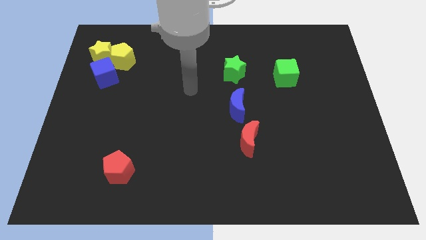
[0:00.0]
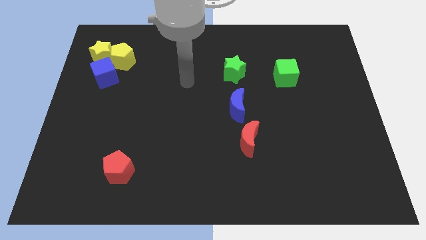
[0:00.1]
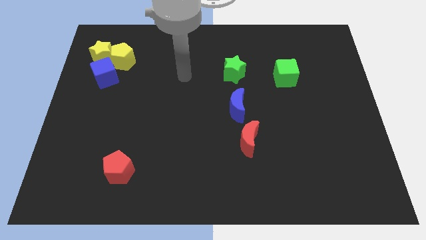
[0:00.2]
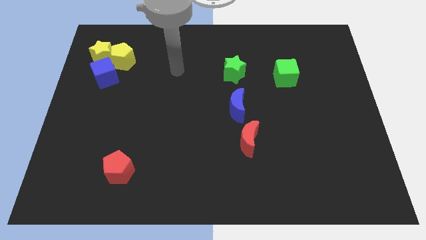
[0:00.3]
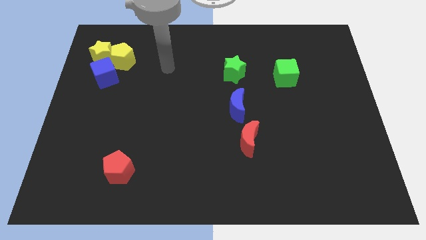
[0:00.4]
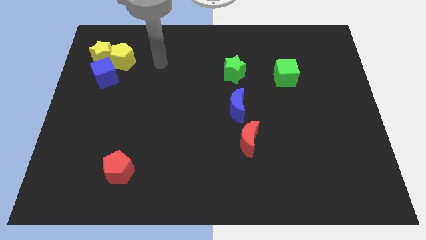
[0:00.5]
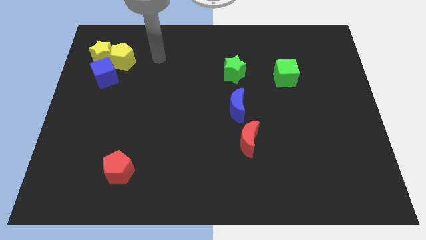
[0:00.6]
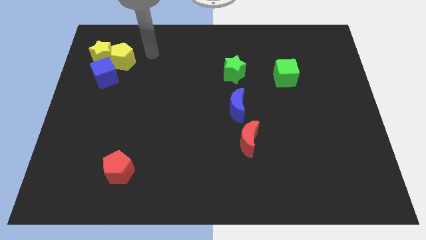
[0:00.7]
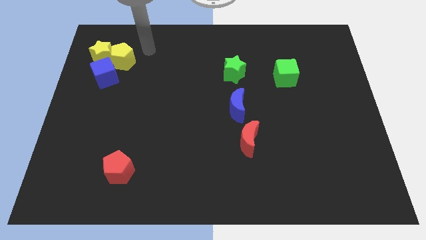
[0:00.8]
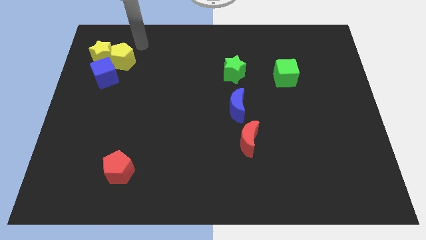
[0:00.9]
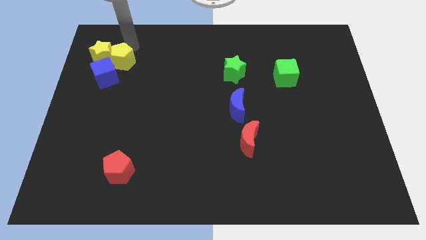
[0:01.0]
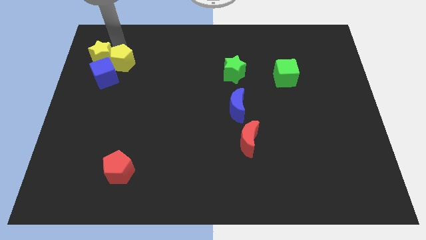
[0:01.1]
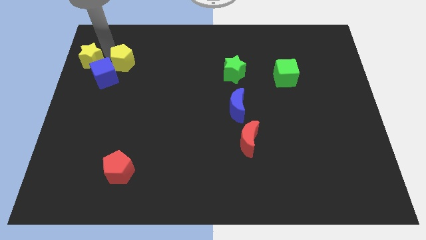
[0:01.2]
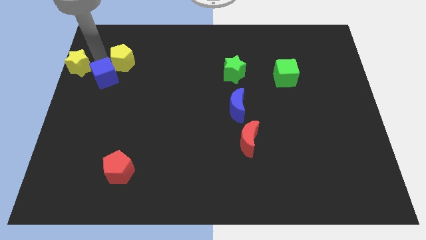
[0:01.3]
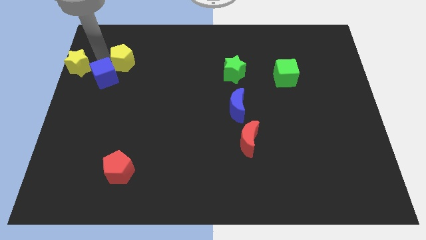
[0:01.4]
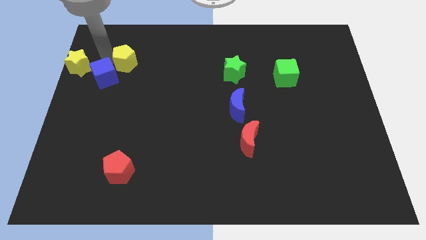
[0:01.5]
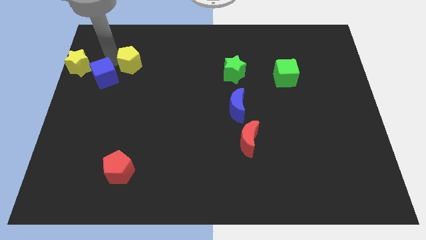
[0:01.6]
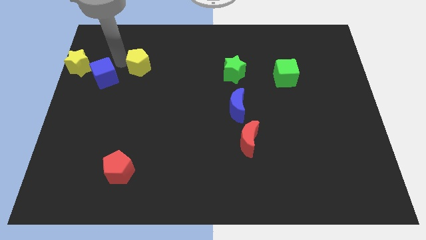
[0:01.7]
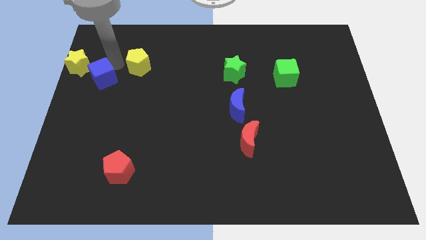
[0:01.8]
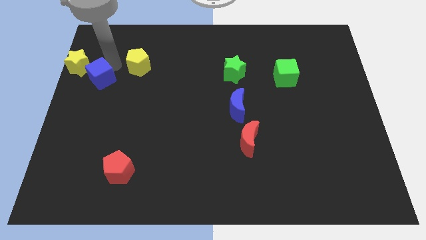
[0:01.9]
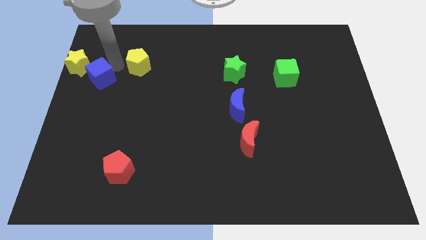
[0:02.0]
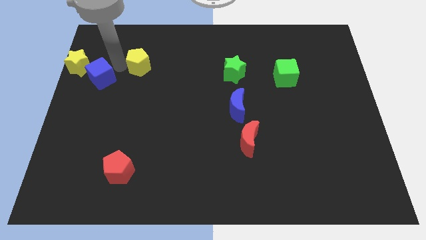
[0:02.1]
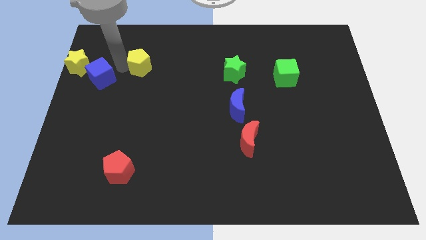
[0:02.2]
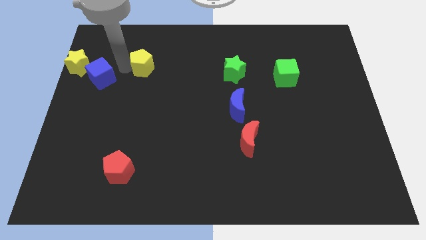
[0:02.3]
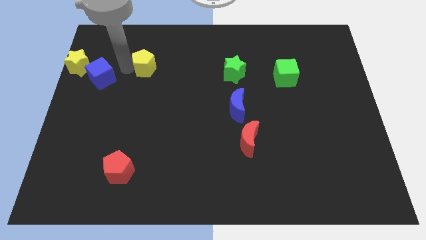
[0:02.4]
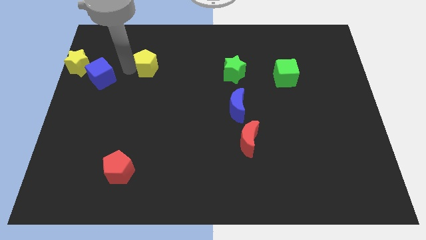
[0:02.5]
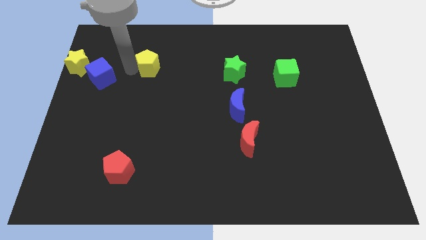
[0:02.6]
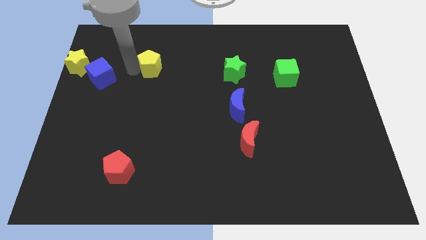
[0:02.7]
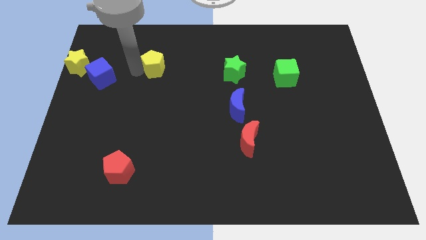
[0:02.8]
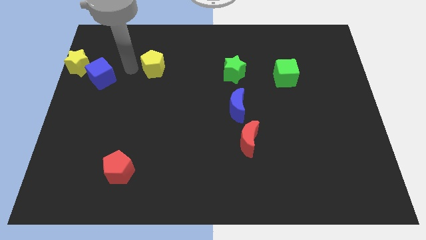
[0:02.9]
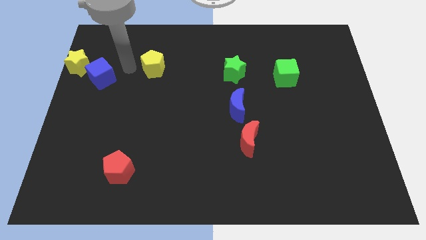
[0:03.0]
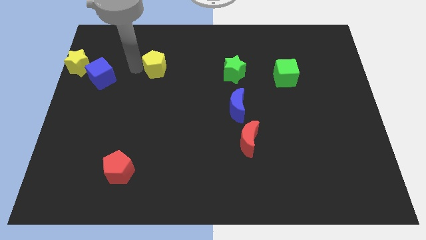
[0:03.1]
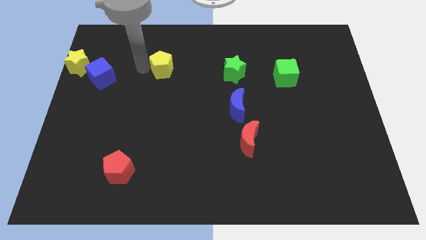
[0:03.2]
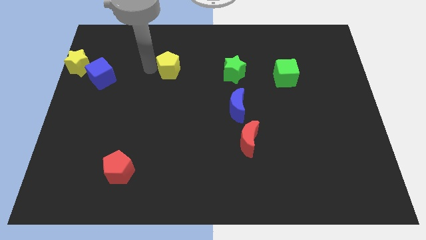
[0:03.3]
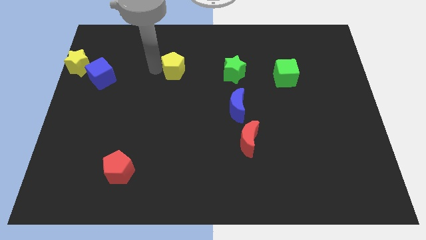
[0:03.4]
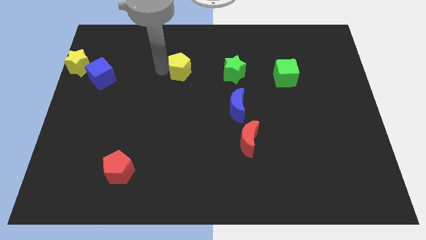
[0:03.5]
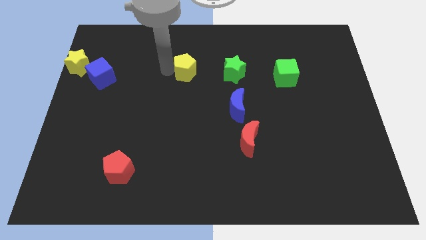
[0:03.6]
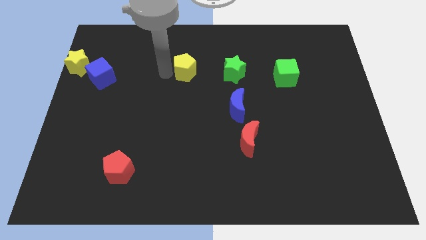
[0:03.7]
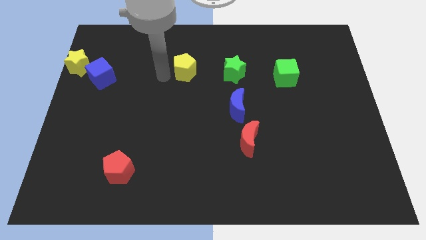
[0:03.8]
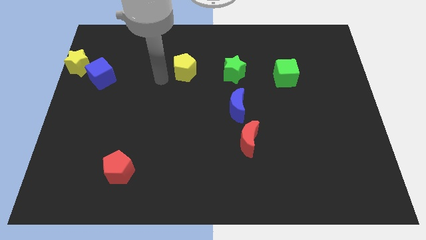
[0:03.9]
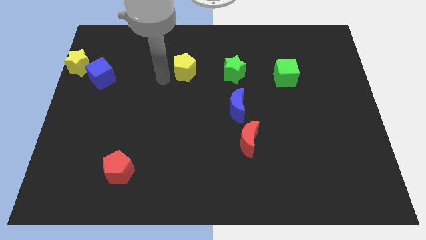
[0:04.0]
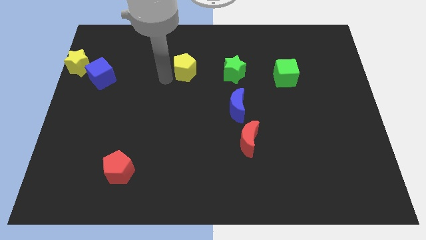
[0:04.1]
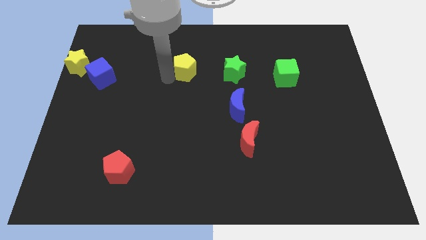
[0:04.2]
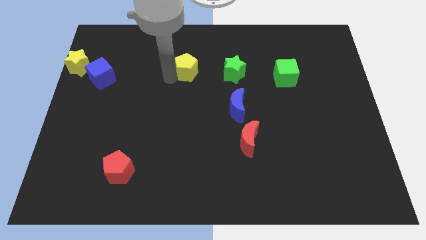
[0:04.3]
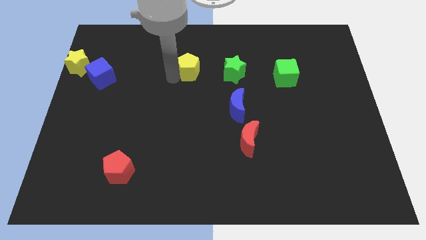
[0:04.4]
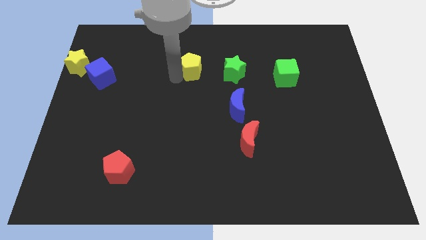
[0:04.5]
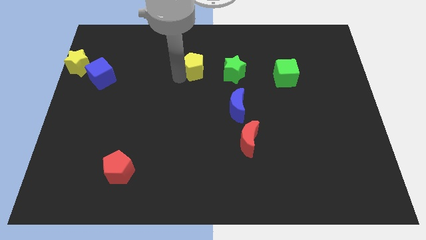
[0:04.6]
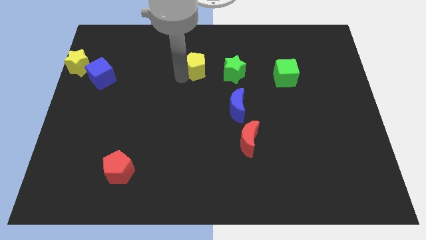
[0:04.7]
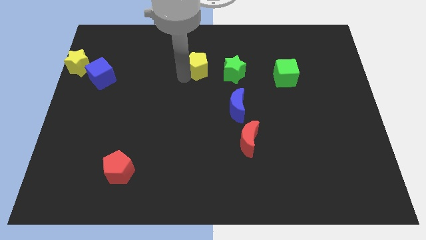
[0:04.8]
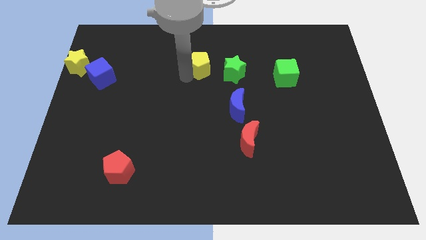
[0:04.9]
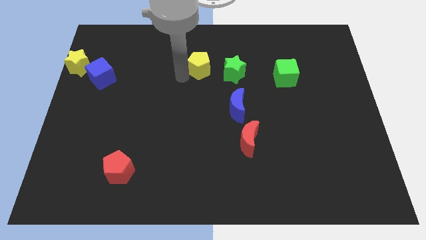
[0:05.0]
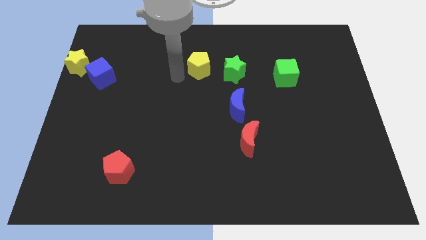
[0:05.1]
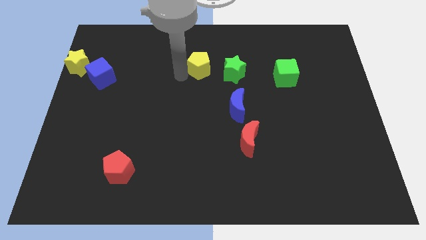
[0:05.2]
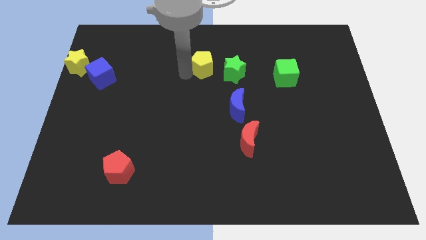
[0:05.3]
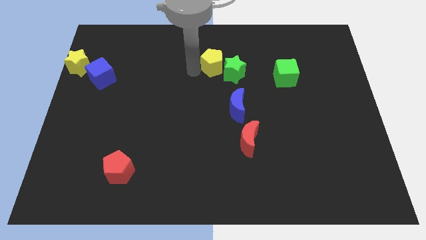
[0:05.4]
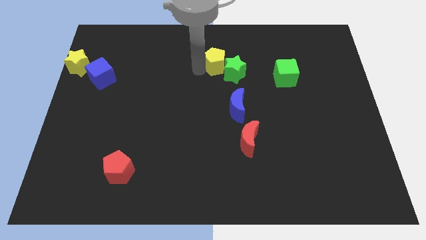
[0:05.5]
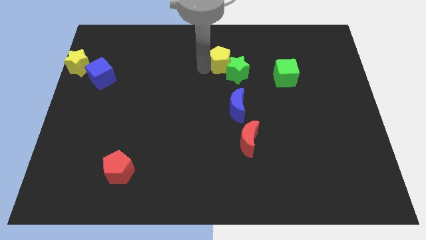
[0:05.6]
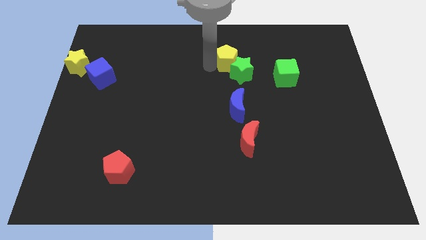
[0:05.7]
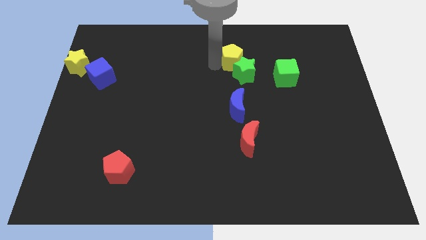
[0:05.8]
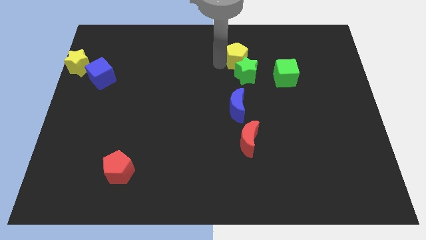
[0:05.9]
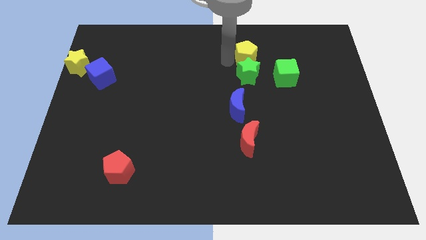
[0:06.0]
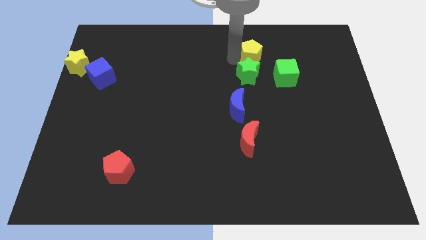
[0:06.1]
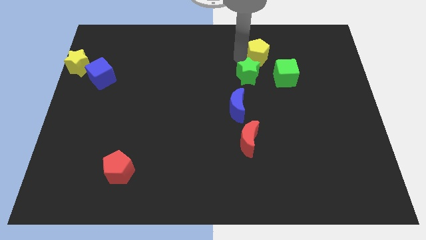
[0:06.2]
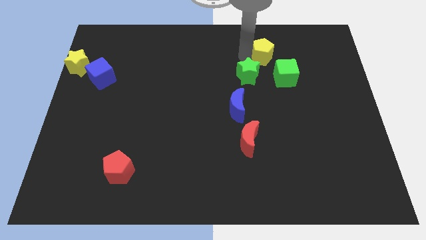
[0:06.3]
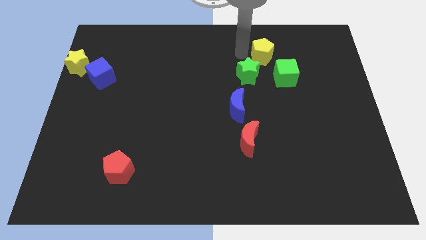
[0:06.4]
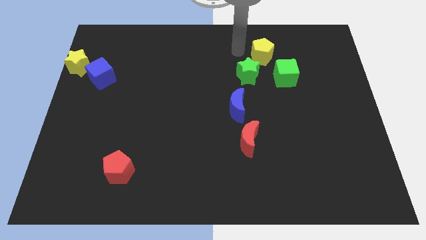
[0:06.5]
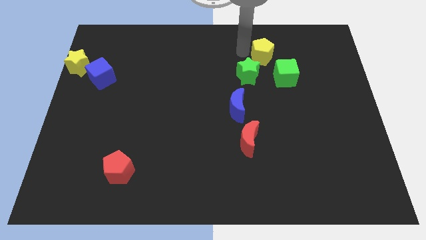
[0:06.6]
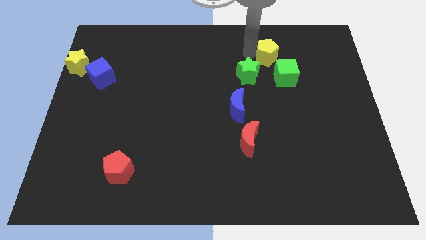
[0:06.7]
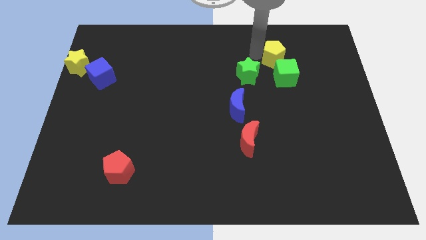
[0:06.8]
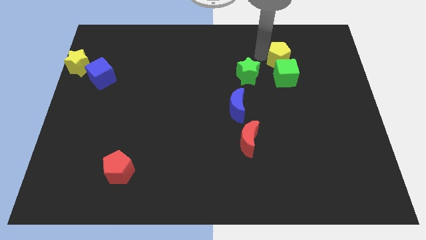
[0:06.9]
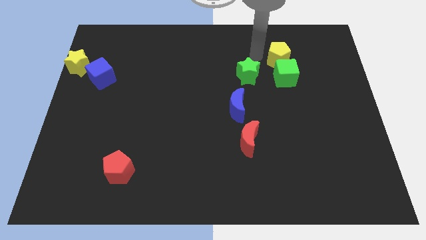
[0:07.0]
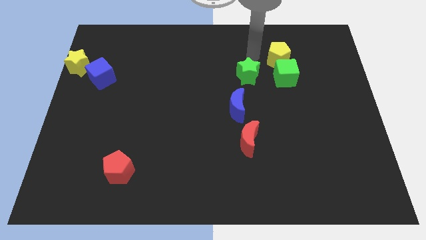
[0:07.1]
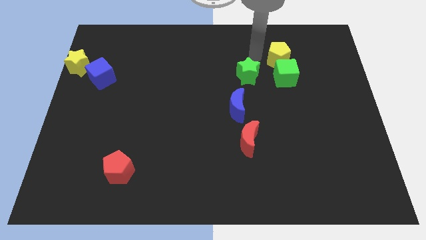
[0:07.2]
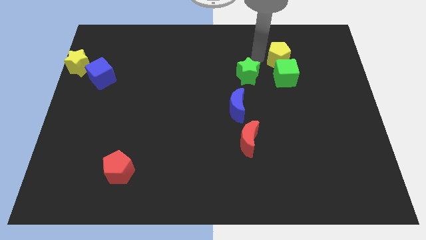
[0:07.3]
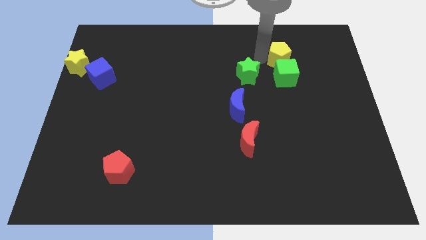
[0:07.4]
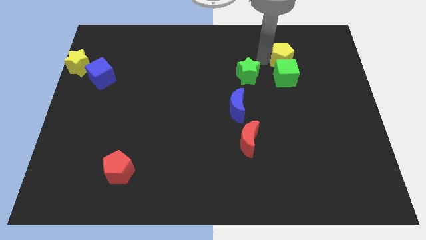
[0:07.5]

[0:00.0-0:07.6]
push the yellow pentagon to the top right side of the green cube
